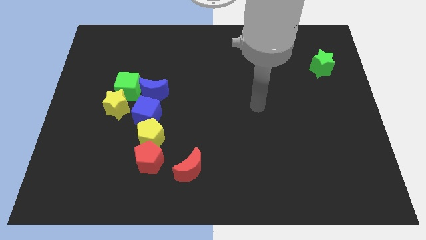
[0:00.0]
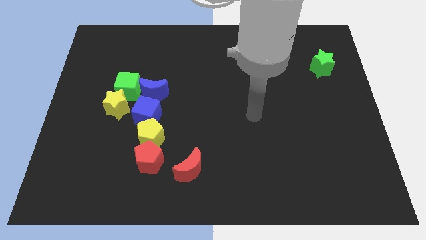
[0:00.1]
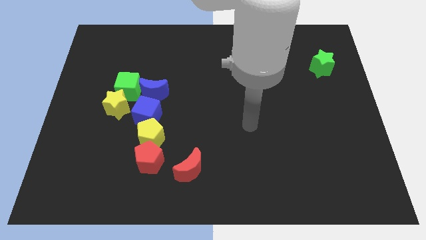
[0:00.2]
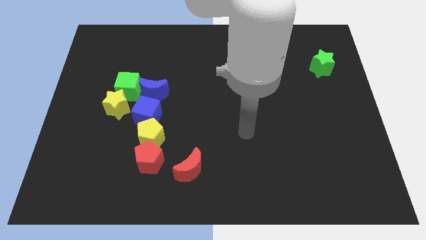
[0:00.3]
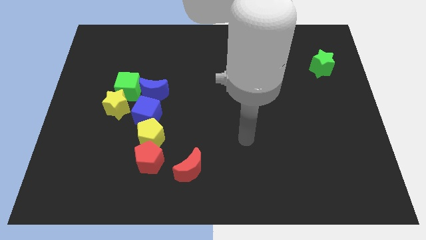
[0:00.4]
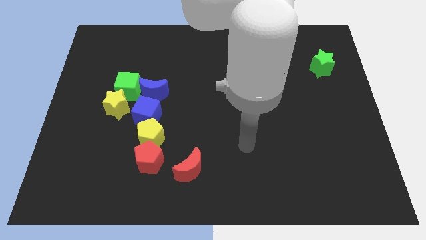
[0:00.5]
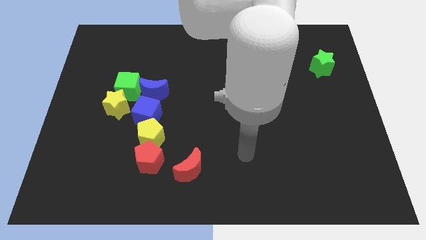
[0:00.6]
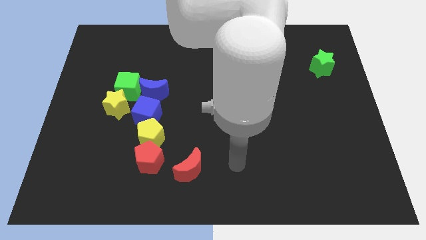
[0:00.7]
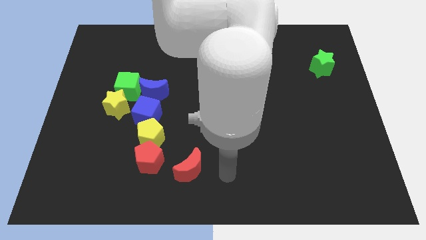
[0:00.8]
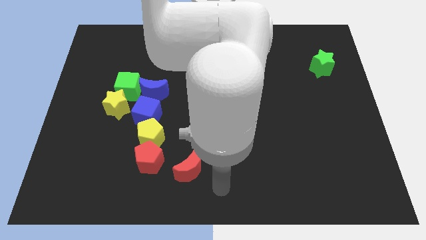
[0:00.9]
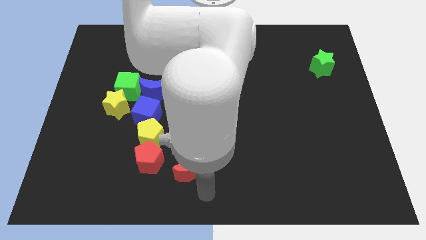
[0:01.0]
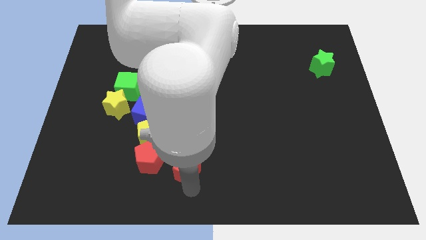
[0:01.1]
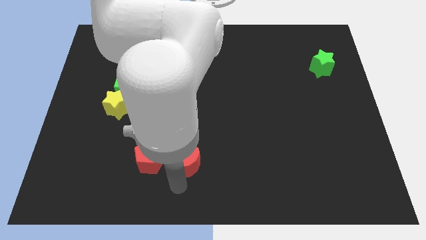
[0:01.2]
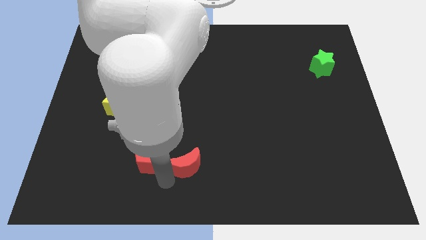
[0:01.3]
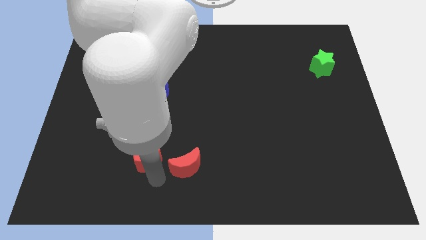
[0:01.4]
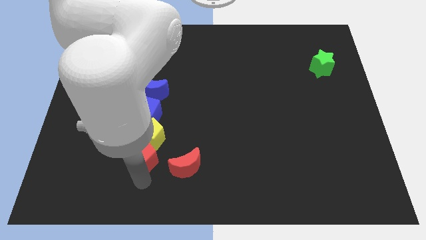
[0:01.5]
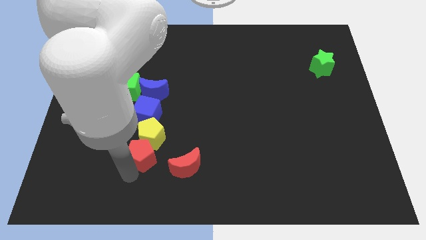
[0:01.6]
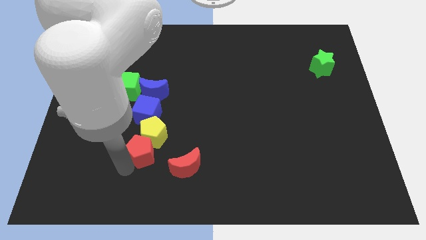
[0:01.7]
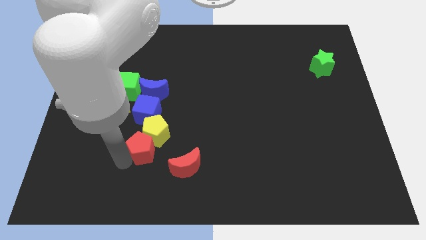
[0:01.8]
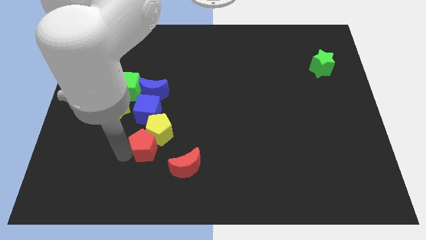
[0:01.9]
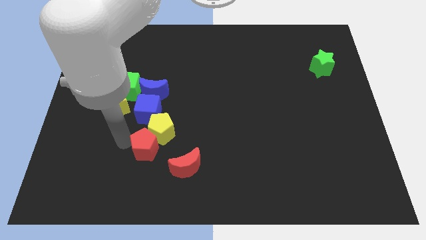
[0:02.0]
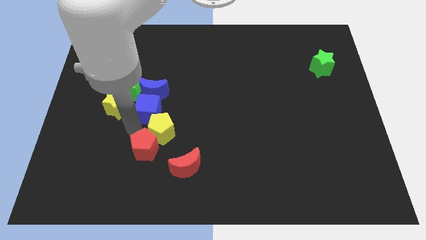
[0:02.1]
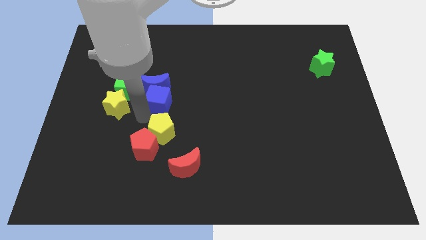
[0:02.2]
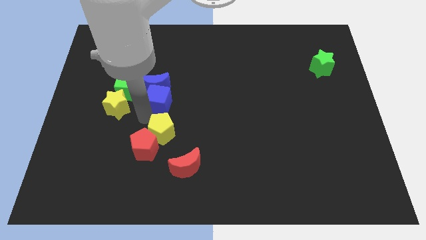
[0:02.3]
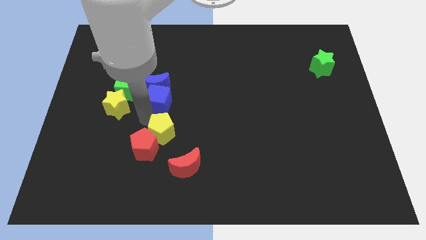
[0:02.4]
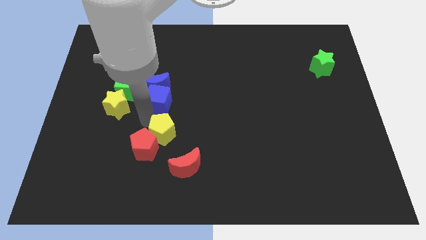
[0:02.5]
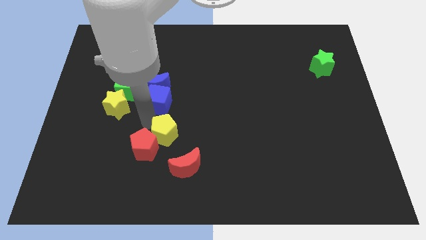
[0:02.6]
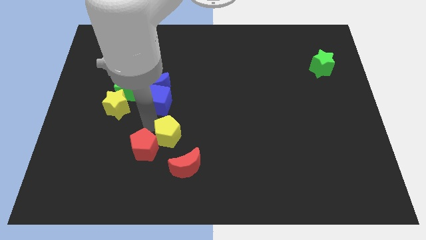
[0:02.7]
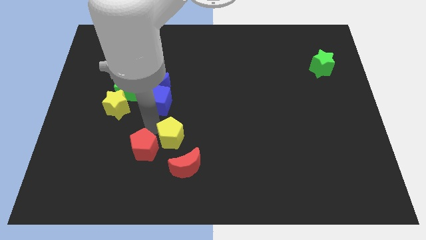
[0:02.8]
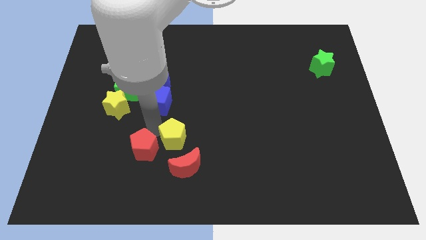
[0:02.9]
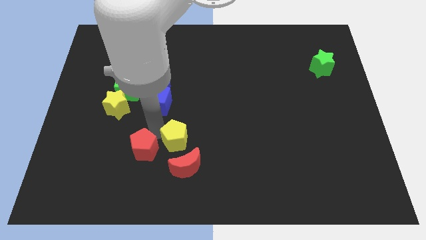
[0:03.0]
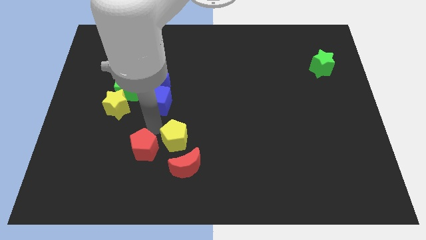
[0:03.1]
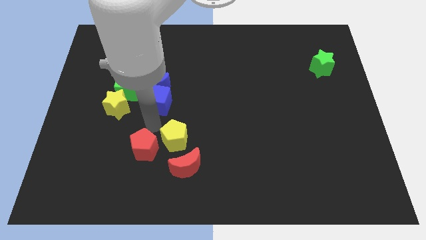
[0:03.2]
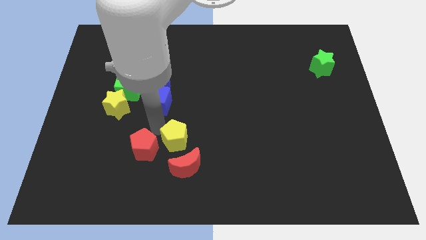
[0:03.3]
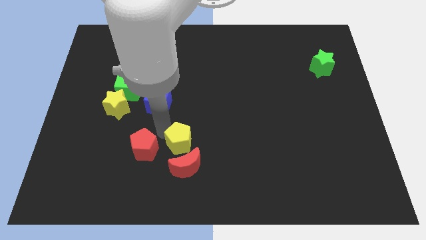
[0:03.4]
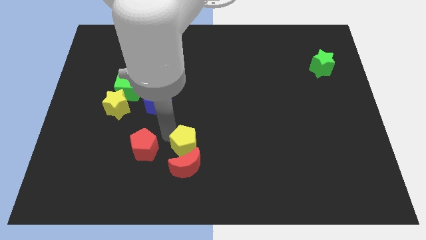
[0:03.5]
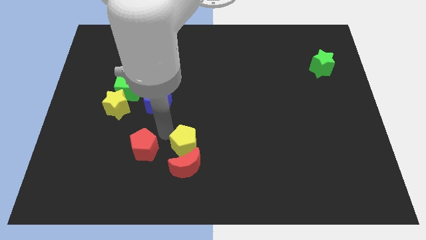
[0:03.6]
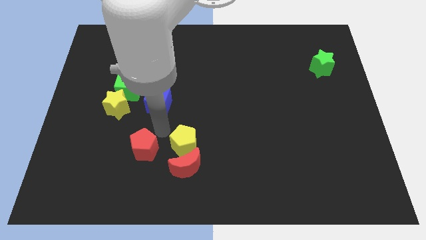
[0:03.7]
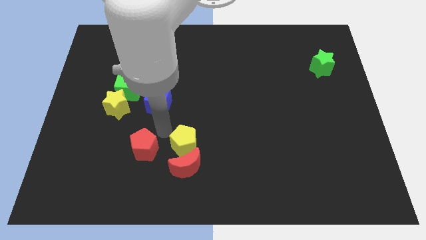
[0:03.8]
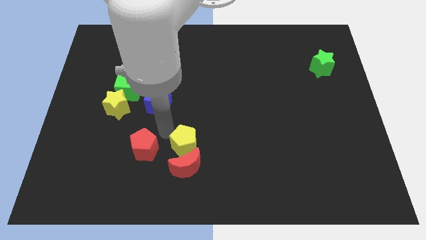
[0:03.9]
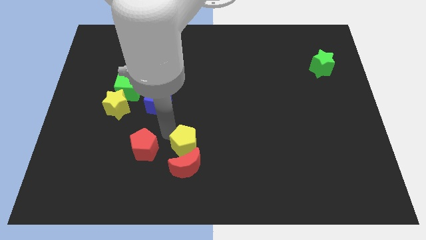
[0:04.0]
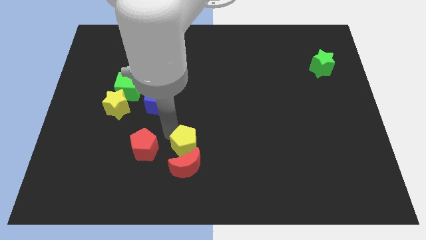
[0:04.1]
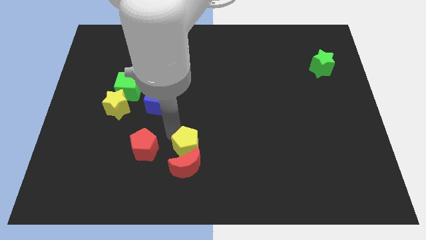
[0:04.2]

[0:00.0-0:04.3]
separate the yellow pentagon from the red pentagon and blue cube

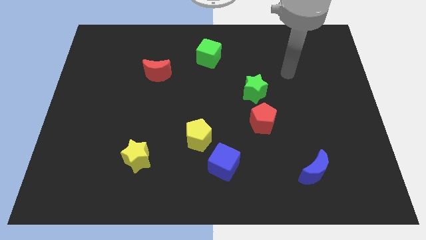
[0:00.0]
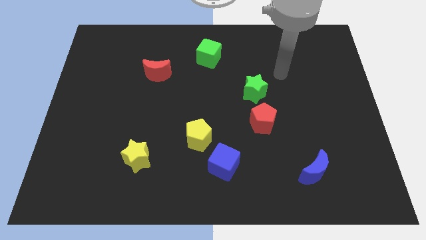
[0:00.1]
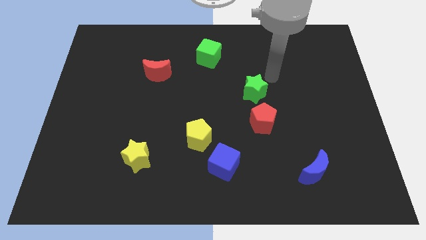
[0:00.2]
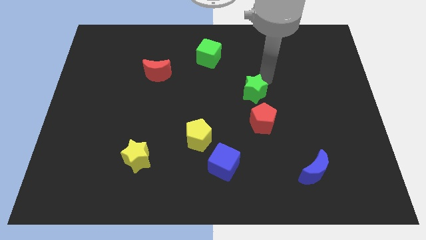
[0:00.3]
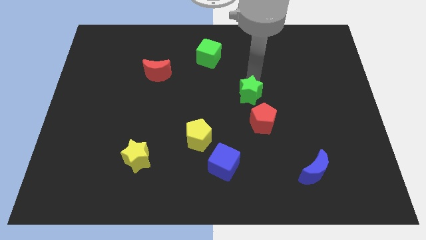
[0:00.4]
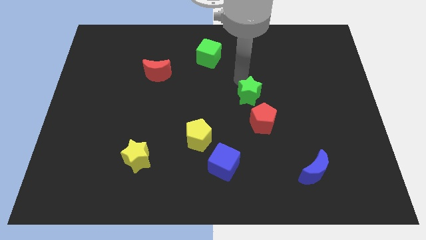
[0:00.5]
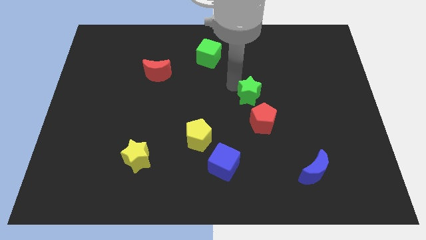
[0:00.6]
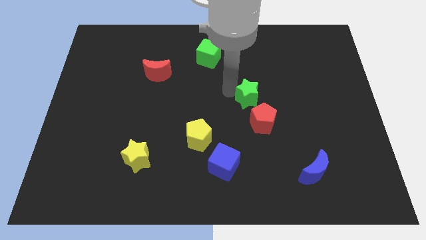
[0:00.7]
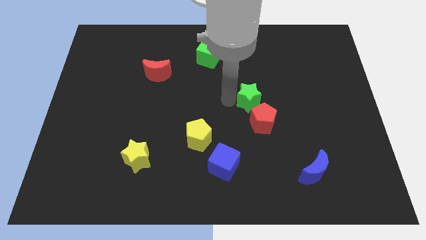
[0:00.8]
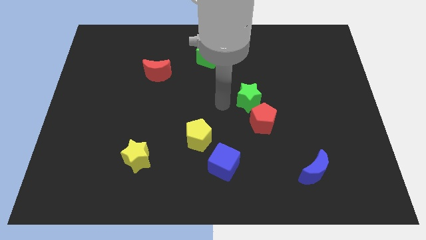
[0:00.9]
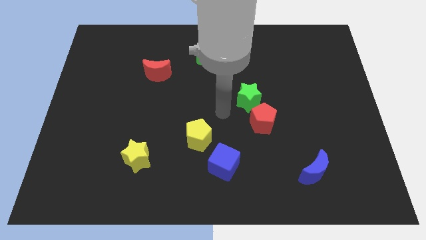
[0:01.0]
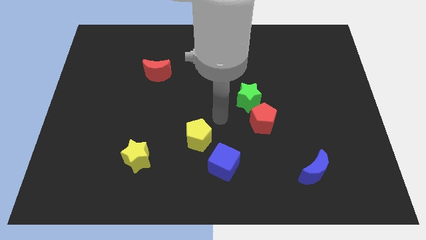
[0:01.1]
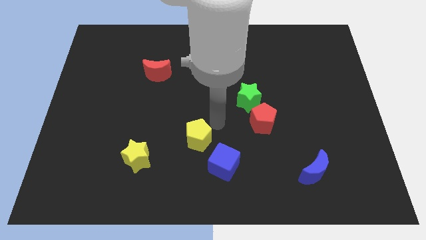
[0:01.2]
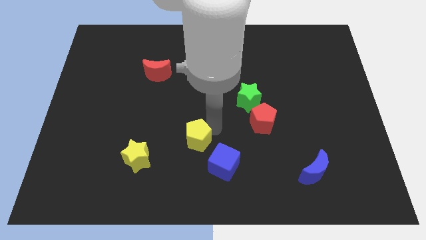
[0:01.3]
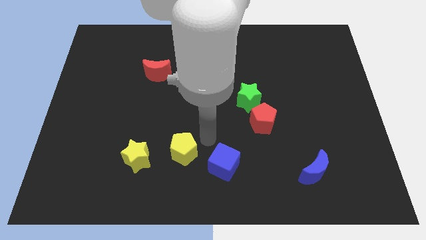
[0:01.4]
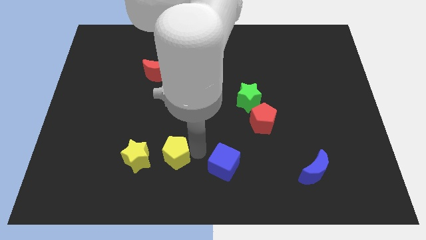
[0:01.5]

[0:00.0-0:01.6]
pull the blue cube apart from the yellow pentagon

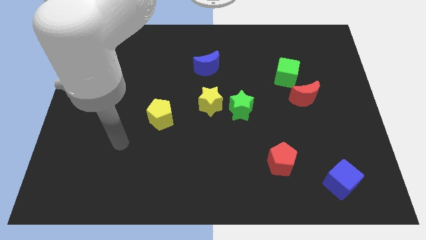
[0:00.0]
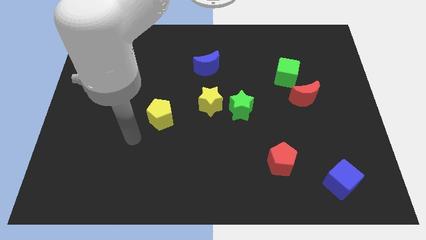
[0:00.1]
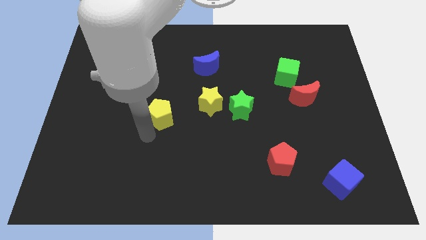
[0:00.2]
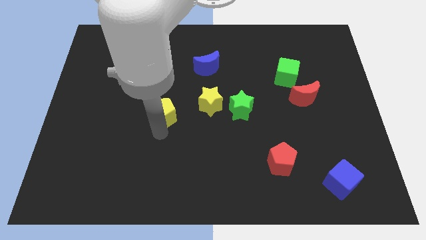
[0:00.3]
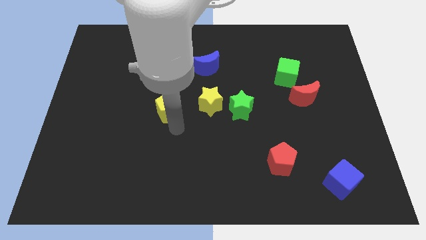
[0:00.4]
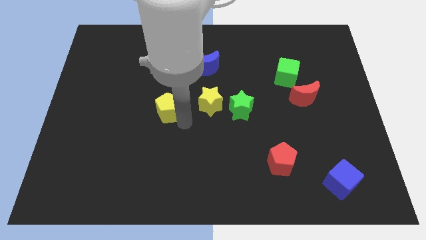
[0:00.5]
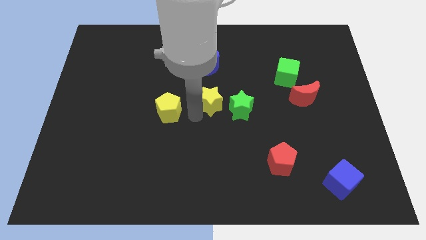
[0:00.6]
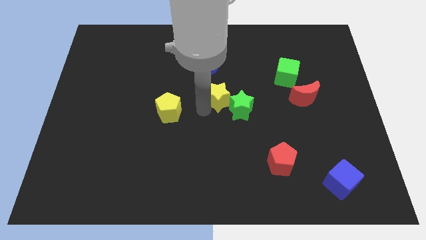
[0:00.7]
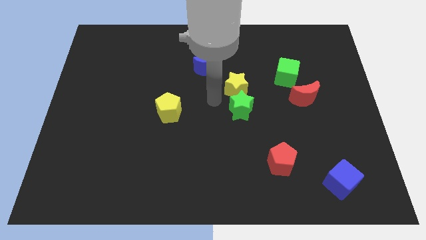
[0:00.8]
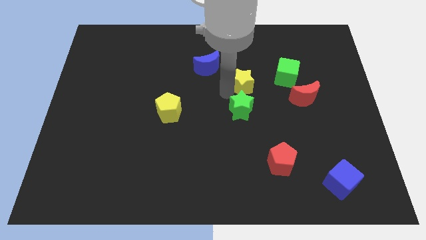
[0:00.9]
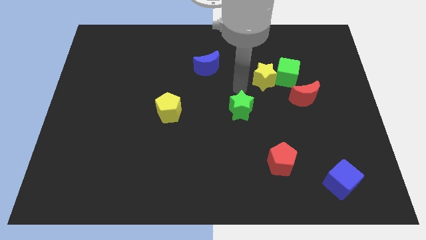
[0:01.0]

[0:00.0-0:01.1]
separate the green star from the yellow star

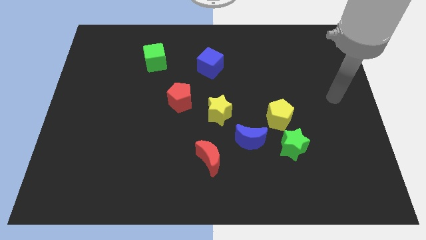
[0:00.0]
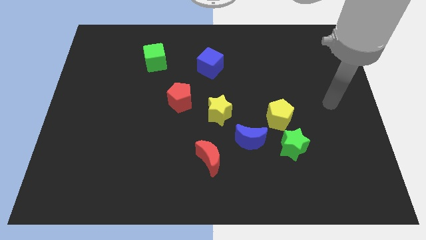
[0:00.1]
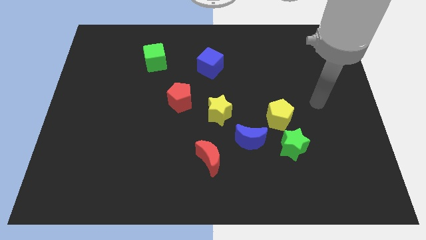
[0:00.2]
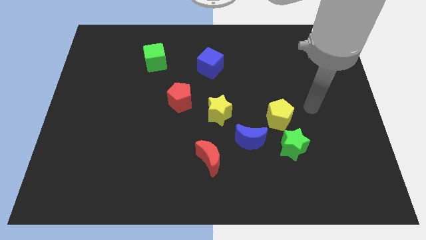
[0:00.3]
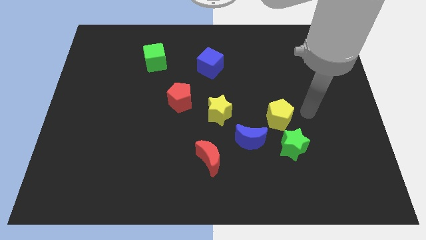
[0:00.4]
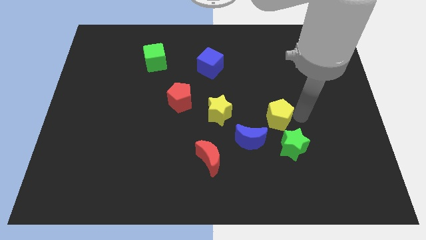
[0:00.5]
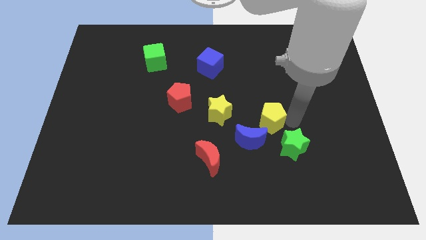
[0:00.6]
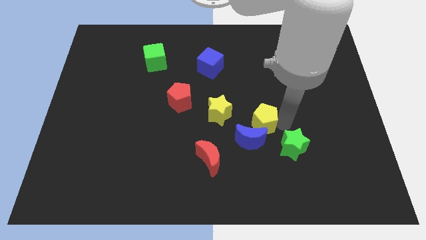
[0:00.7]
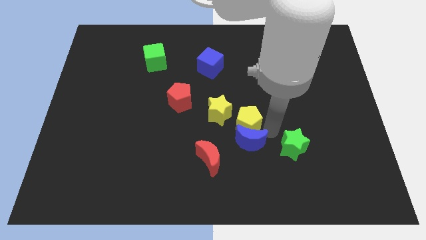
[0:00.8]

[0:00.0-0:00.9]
pull the green star apart from the yellow pentagon and blue moon

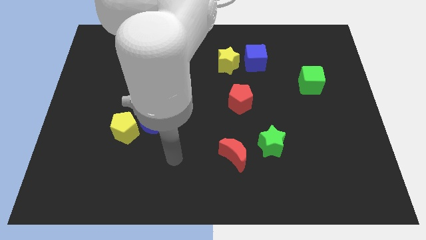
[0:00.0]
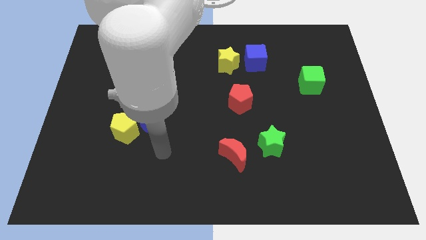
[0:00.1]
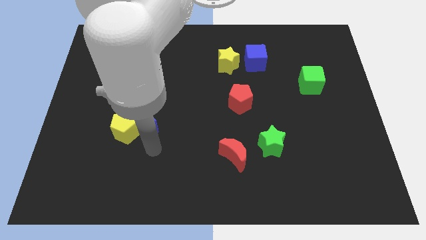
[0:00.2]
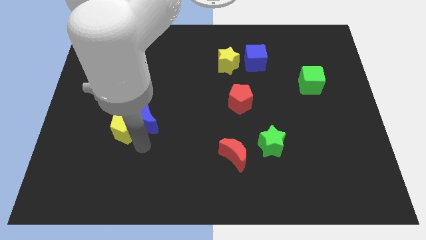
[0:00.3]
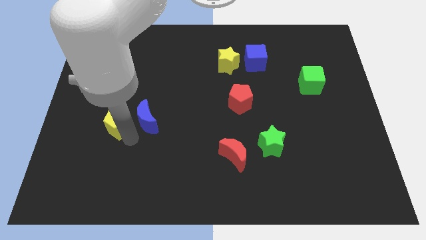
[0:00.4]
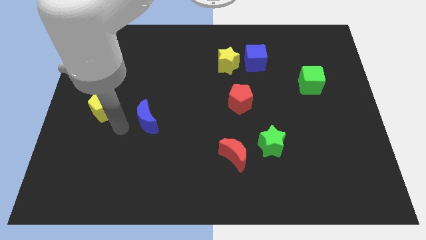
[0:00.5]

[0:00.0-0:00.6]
pull the blue moon apart from the yellow pentagon

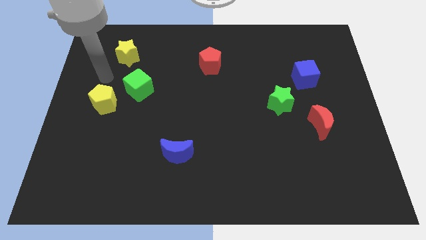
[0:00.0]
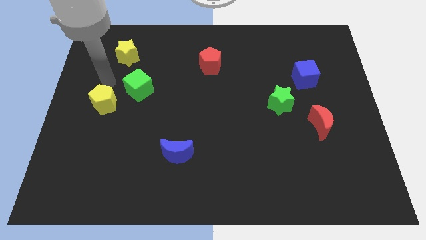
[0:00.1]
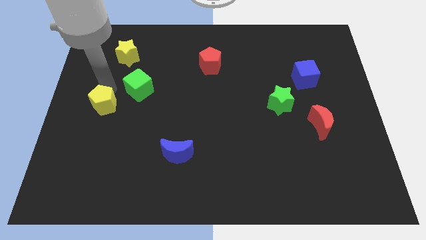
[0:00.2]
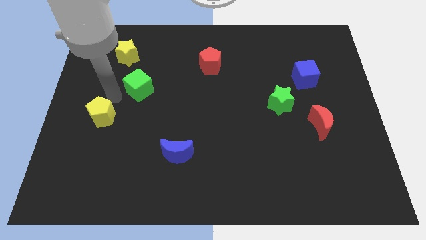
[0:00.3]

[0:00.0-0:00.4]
separate the green cube from the yellow pentagon

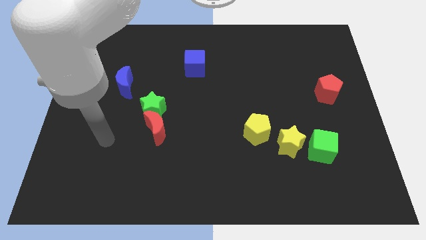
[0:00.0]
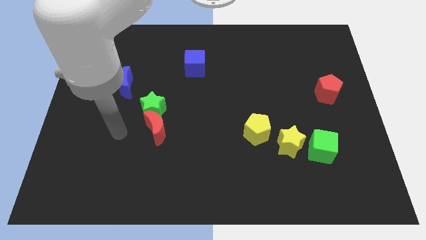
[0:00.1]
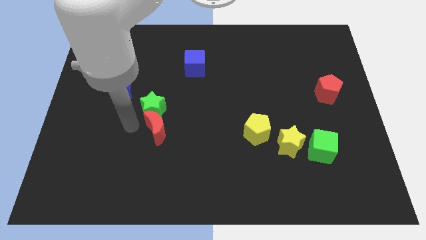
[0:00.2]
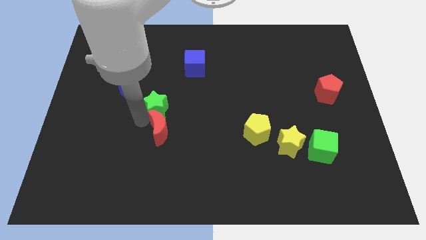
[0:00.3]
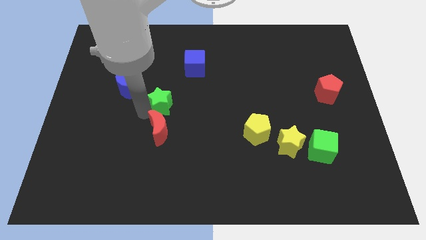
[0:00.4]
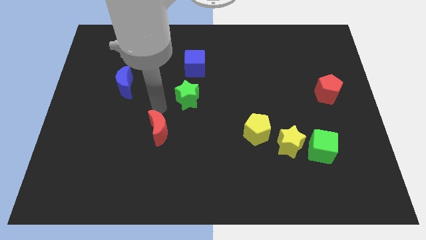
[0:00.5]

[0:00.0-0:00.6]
separate the red moon from the green star
